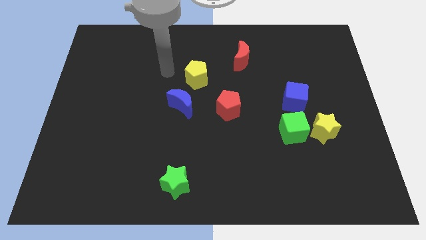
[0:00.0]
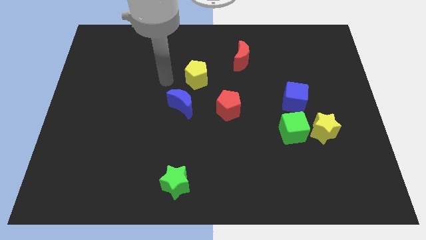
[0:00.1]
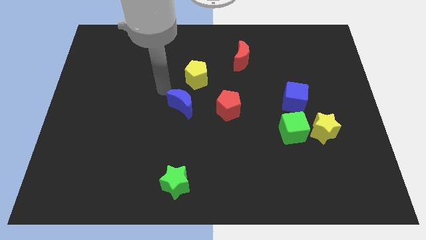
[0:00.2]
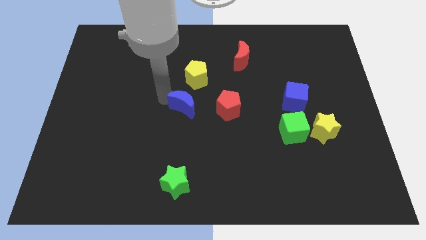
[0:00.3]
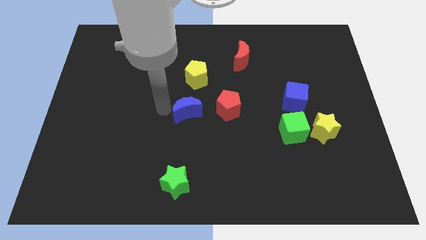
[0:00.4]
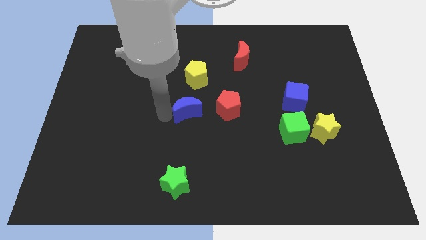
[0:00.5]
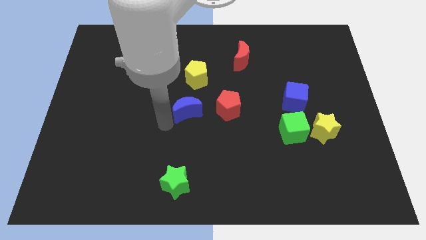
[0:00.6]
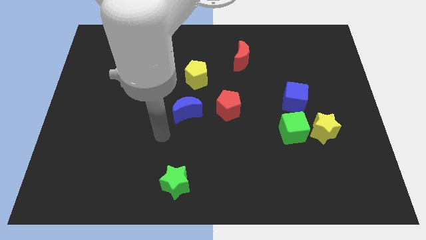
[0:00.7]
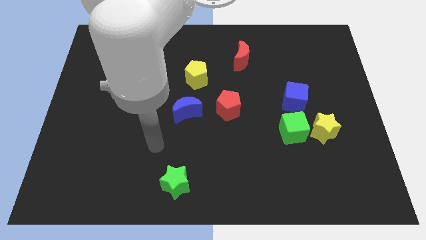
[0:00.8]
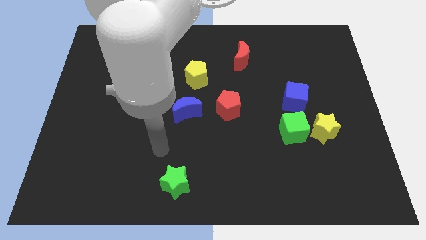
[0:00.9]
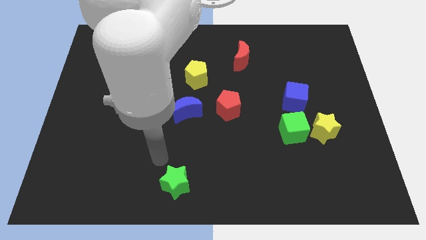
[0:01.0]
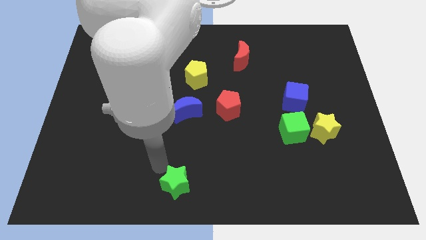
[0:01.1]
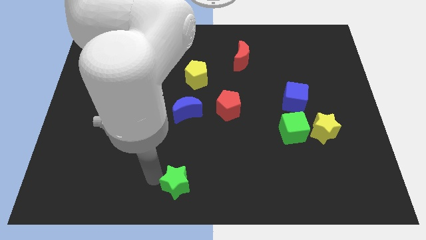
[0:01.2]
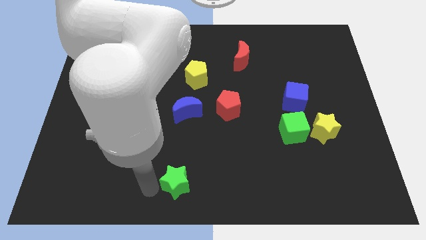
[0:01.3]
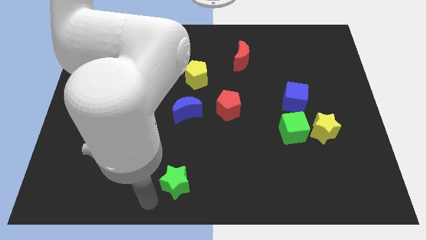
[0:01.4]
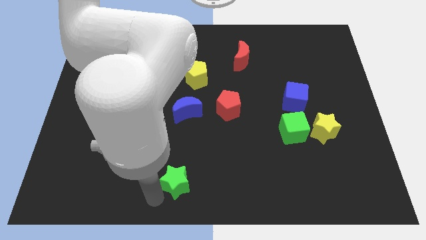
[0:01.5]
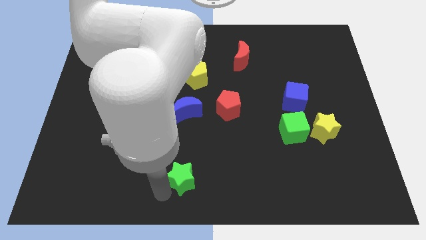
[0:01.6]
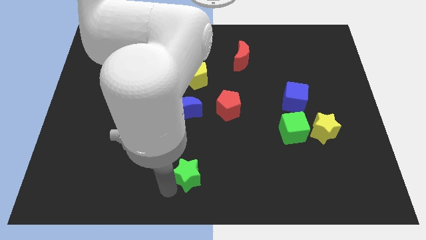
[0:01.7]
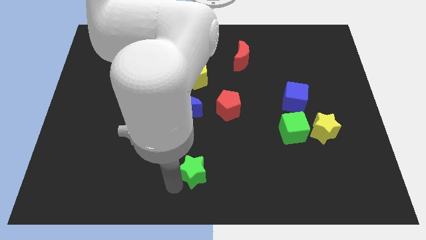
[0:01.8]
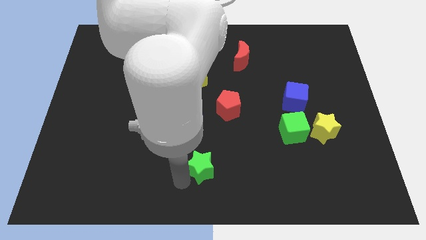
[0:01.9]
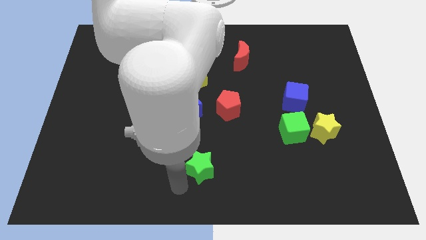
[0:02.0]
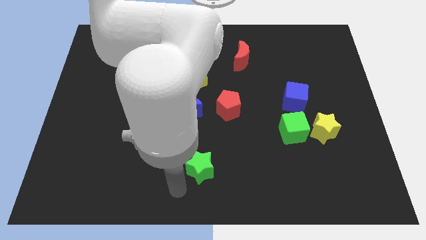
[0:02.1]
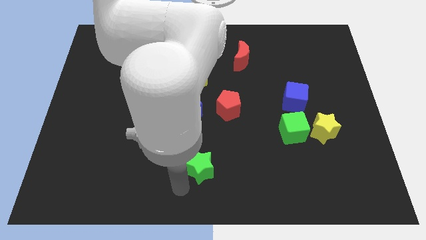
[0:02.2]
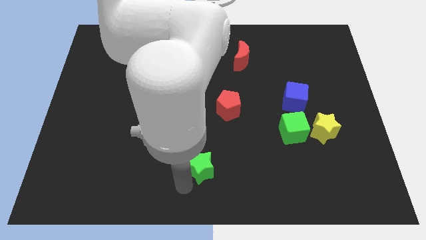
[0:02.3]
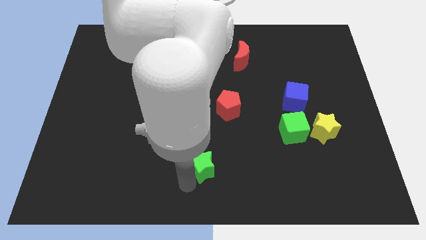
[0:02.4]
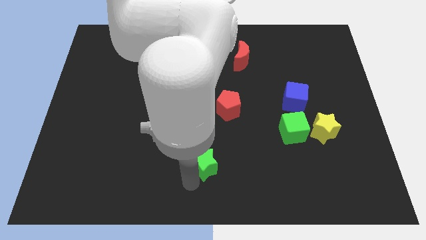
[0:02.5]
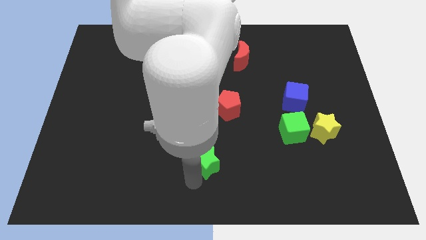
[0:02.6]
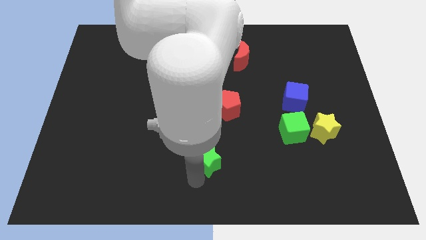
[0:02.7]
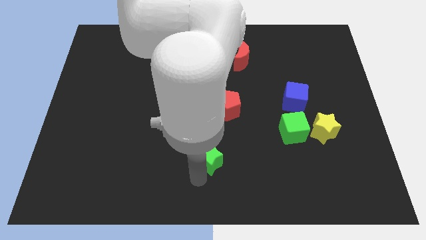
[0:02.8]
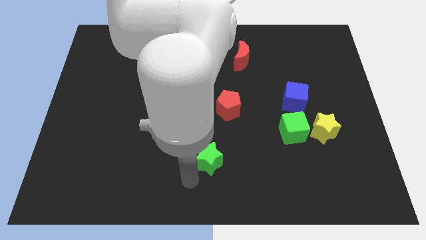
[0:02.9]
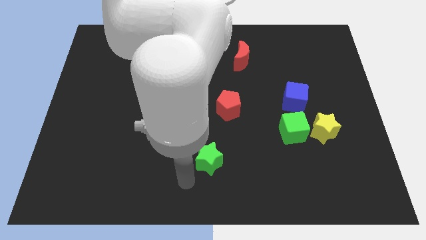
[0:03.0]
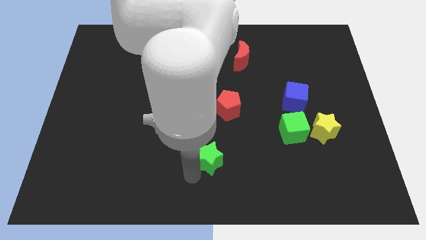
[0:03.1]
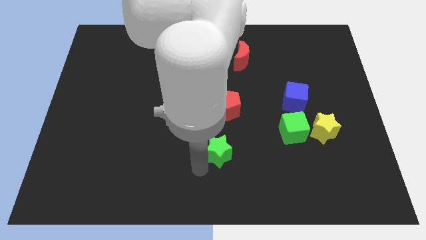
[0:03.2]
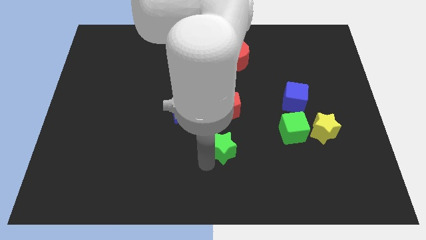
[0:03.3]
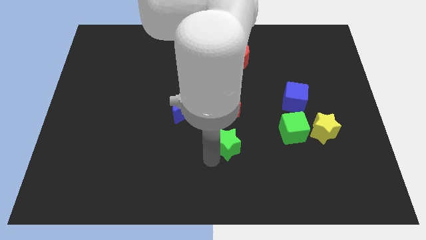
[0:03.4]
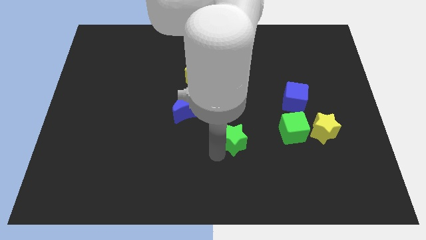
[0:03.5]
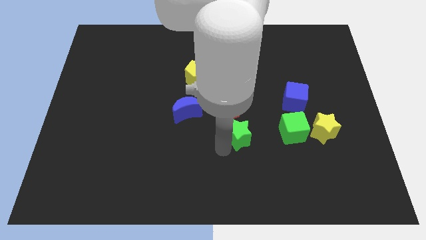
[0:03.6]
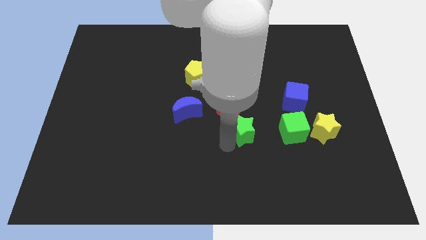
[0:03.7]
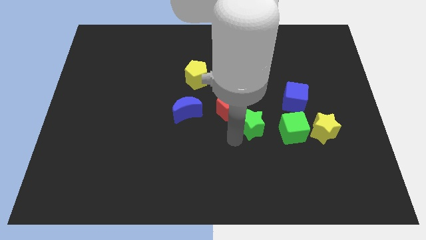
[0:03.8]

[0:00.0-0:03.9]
move the green star upwards and to the right diagonally

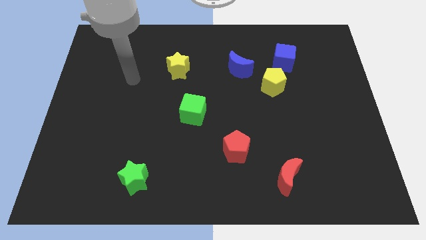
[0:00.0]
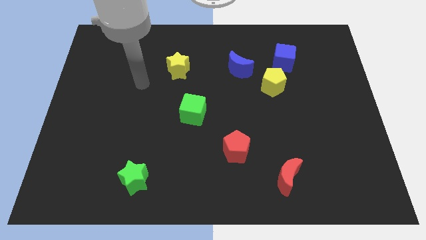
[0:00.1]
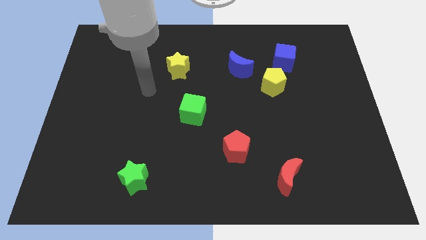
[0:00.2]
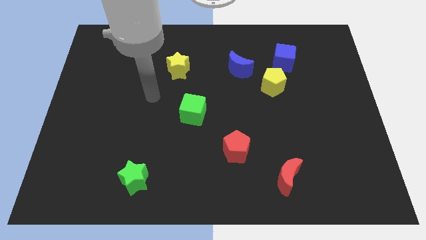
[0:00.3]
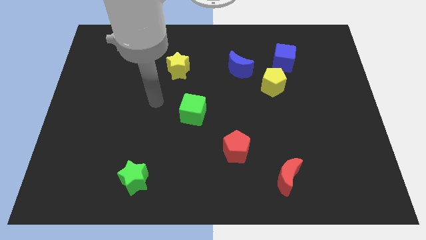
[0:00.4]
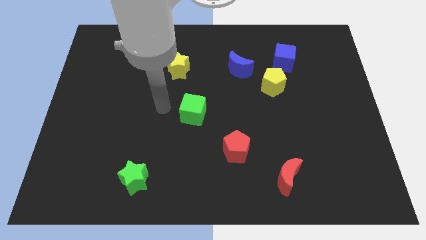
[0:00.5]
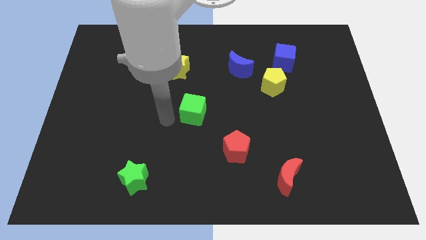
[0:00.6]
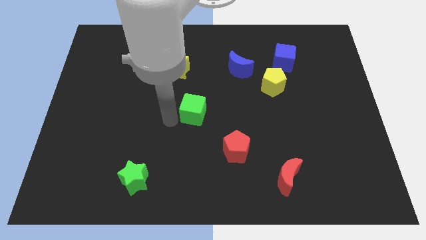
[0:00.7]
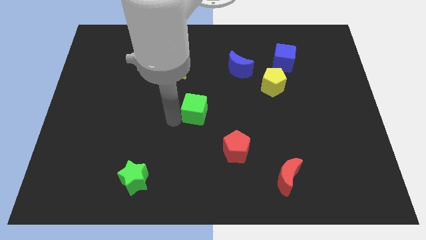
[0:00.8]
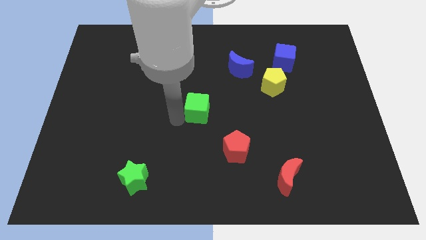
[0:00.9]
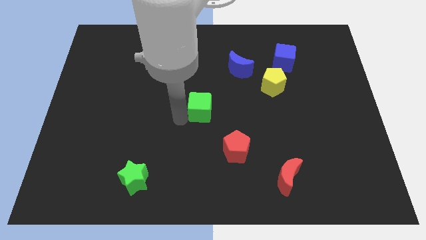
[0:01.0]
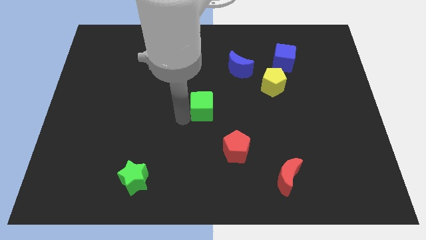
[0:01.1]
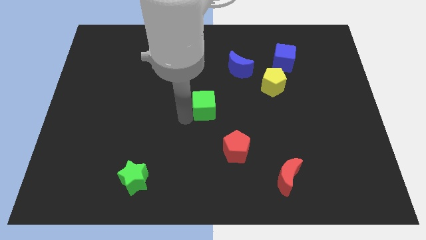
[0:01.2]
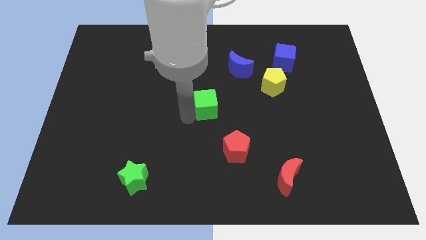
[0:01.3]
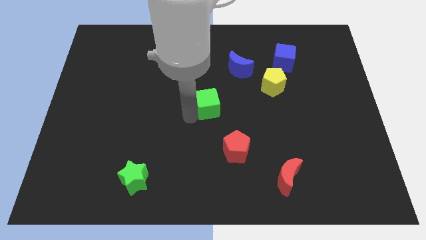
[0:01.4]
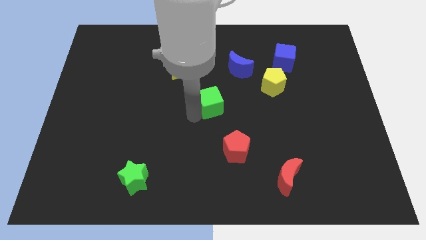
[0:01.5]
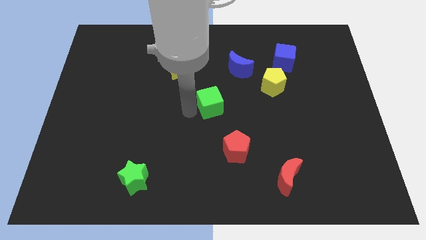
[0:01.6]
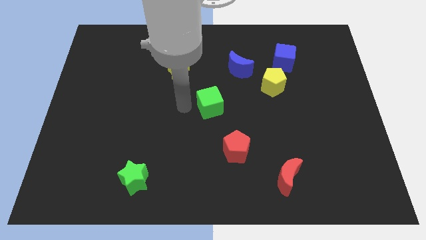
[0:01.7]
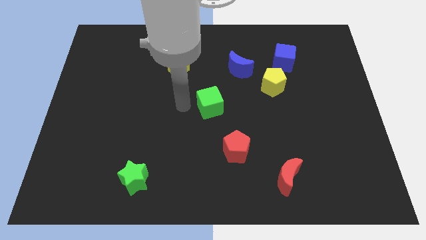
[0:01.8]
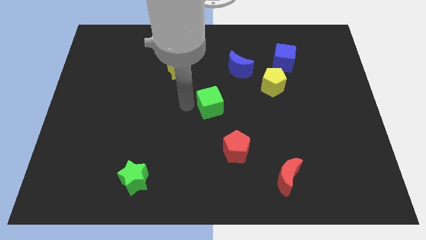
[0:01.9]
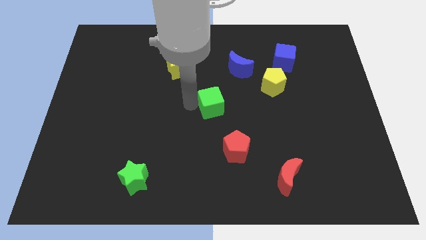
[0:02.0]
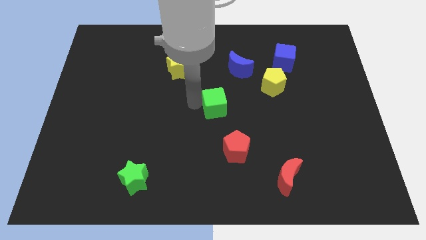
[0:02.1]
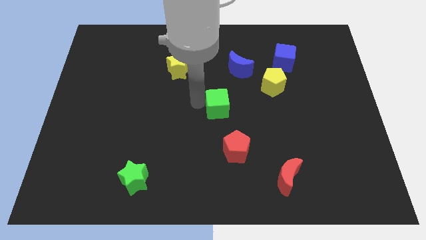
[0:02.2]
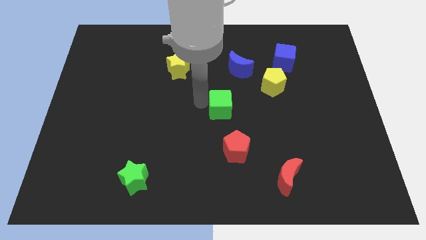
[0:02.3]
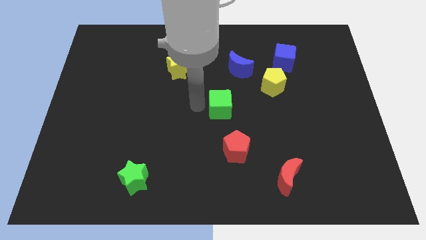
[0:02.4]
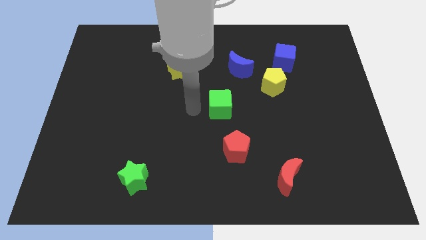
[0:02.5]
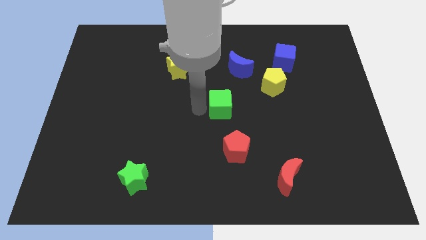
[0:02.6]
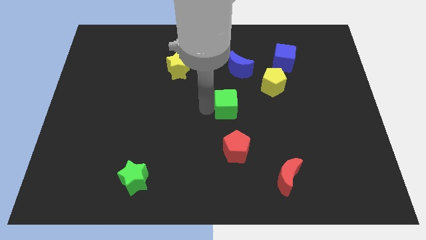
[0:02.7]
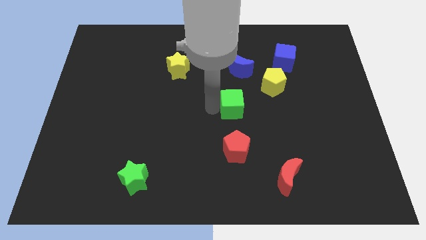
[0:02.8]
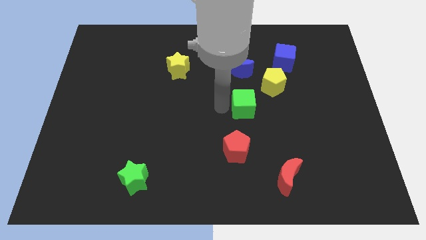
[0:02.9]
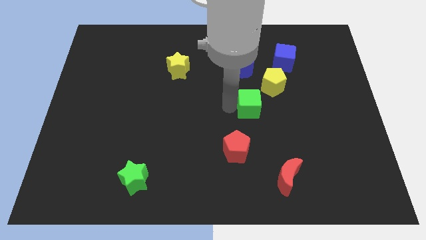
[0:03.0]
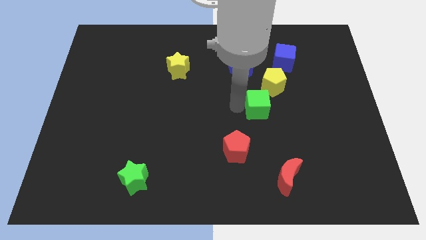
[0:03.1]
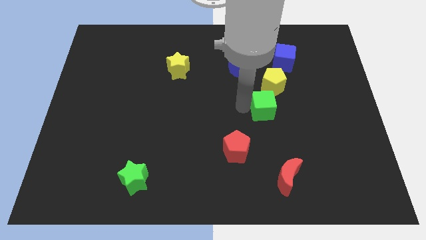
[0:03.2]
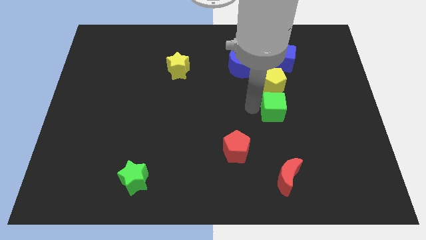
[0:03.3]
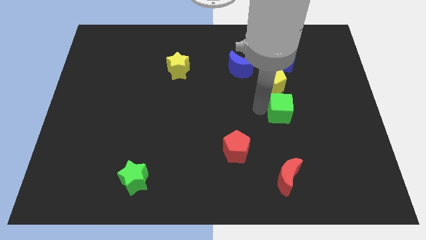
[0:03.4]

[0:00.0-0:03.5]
slide the green cube right

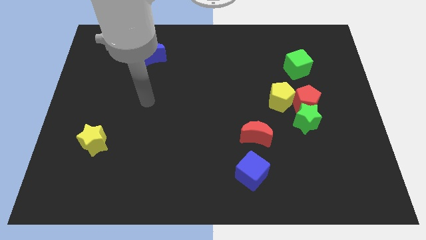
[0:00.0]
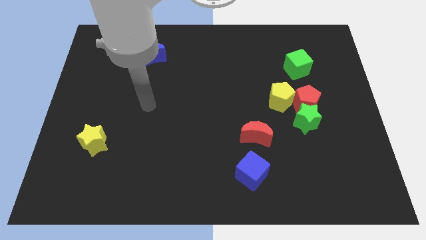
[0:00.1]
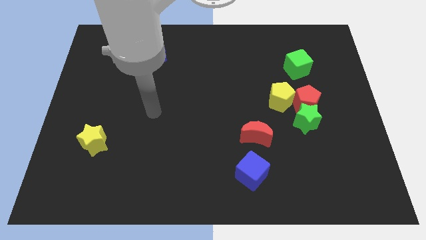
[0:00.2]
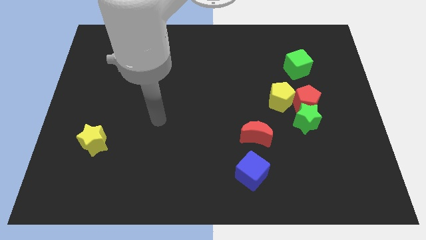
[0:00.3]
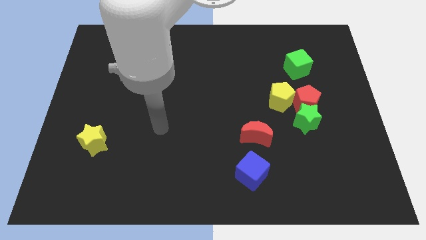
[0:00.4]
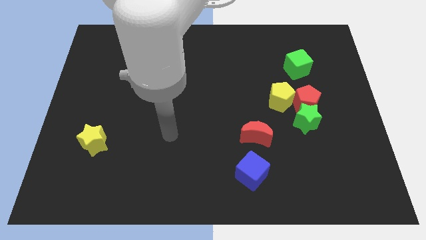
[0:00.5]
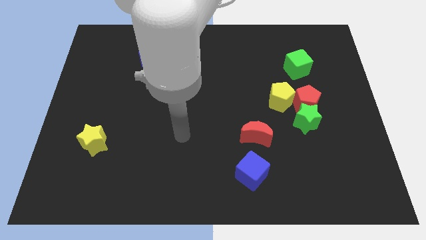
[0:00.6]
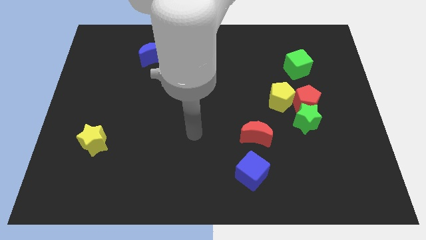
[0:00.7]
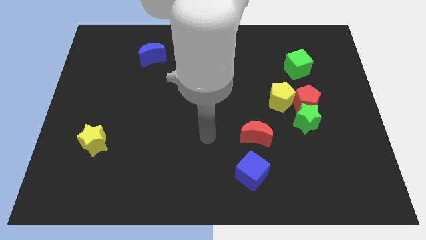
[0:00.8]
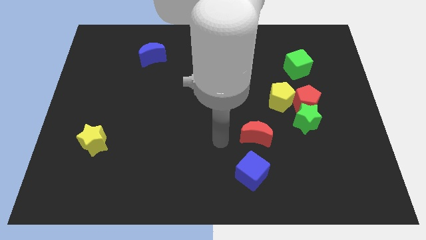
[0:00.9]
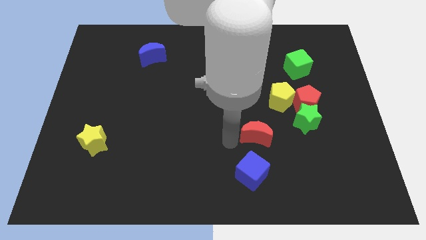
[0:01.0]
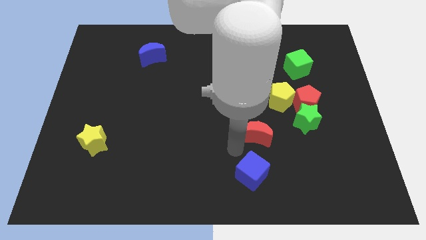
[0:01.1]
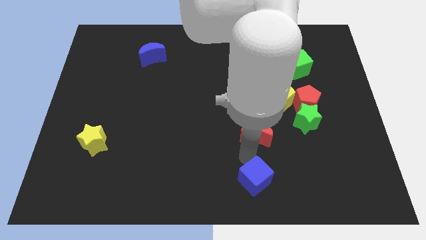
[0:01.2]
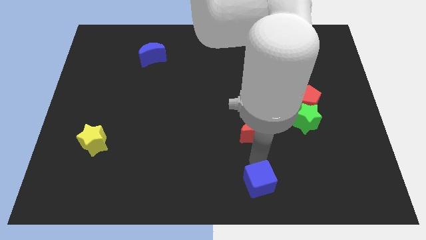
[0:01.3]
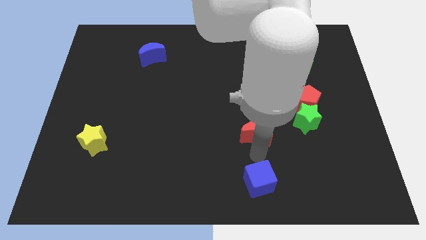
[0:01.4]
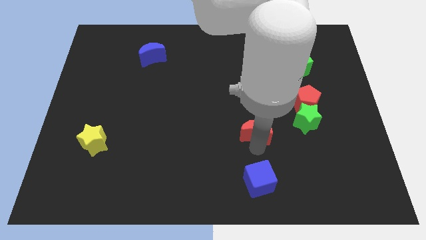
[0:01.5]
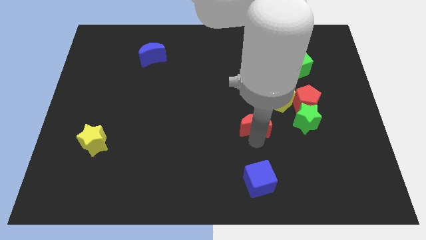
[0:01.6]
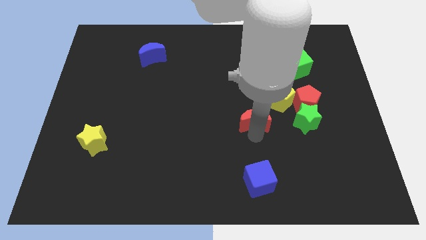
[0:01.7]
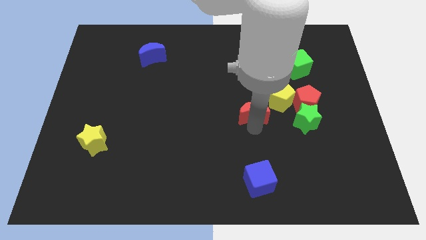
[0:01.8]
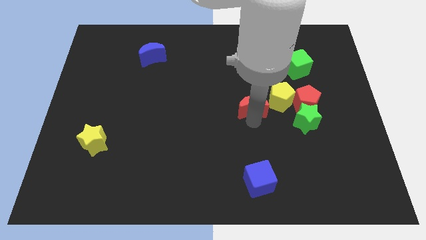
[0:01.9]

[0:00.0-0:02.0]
slide the red moon upwards slightly
